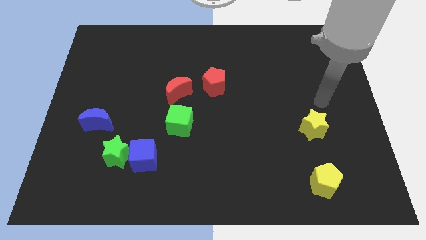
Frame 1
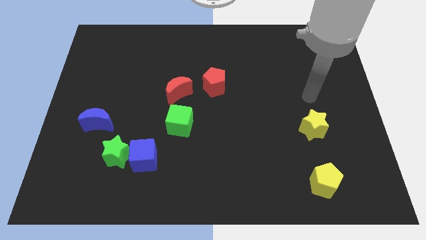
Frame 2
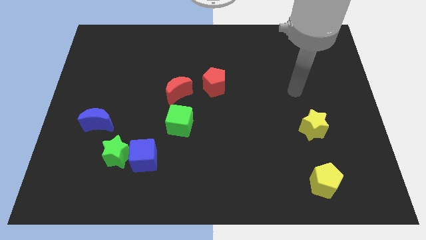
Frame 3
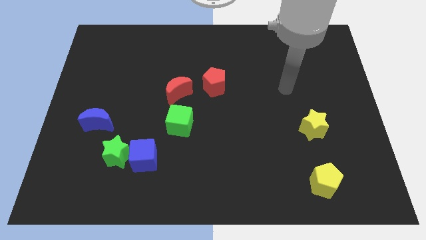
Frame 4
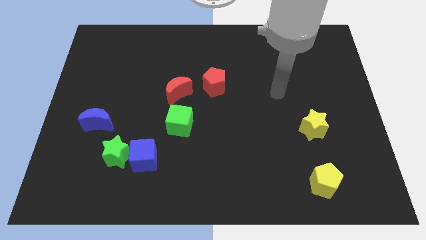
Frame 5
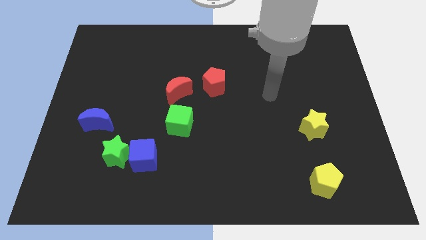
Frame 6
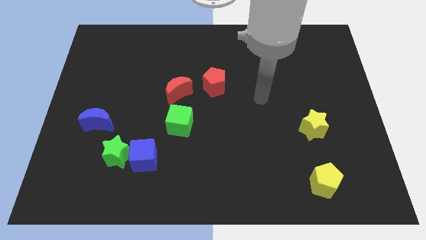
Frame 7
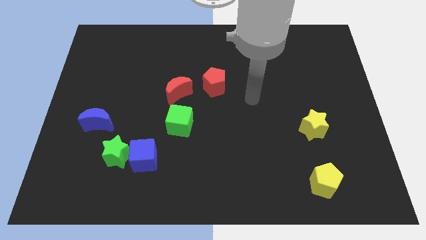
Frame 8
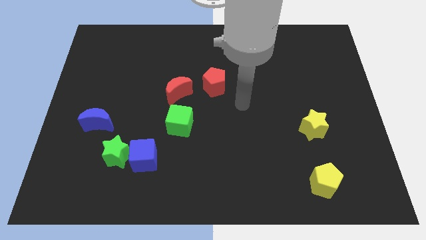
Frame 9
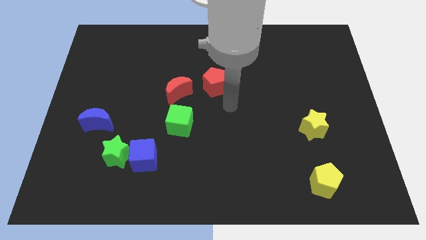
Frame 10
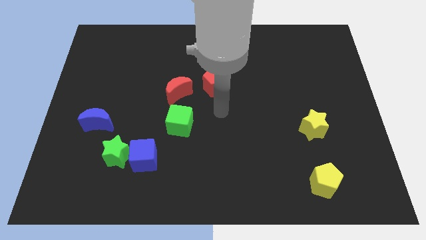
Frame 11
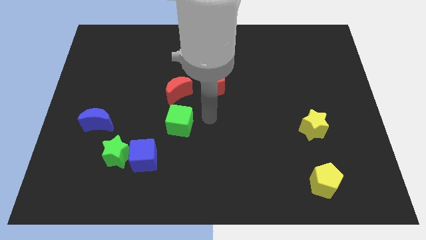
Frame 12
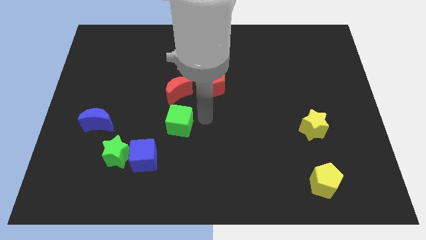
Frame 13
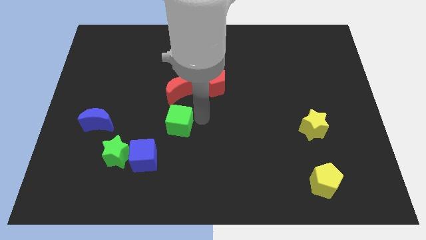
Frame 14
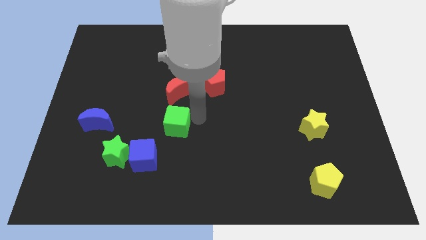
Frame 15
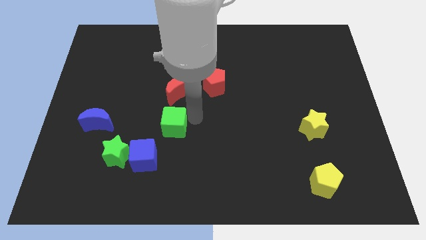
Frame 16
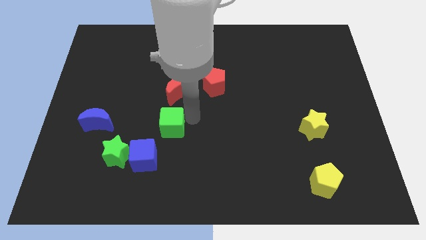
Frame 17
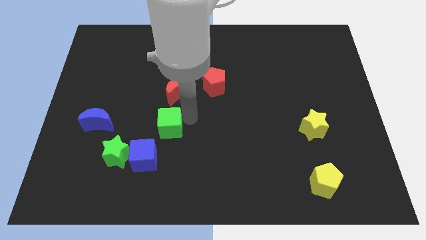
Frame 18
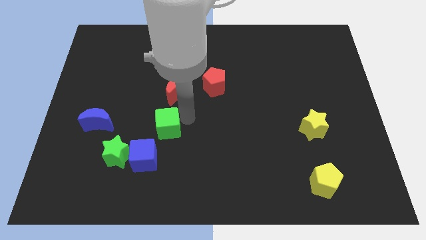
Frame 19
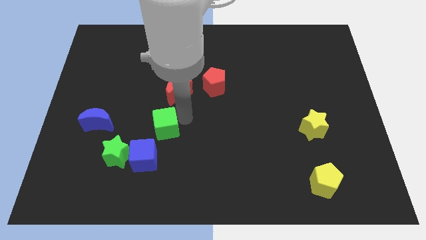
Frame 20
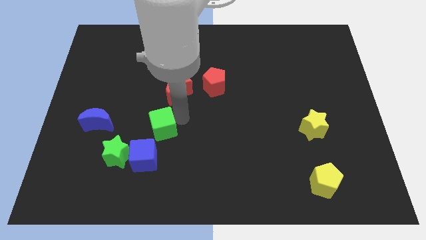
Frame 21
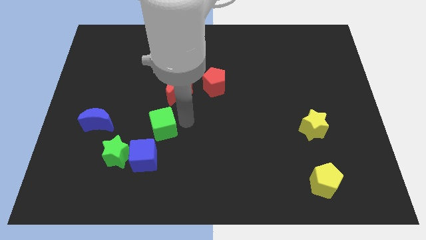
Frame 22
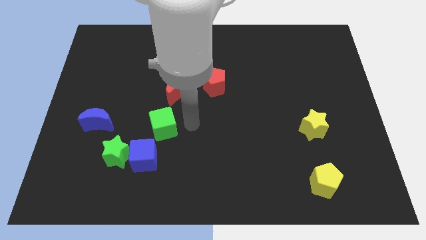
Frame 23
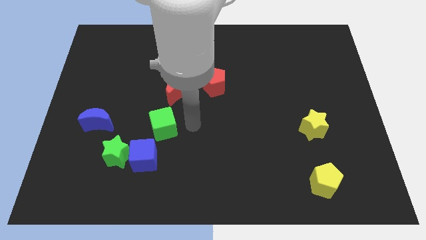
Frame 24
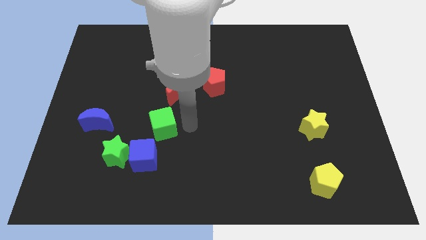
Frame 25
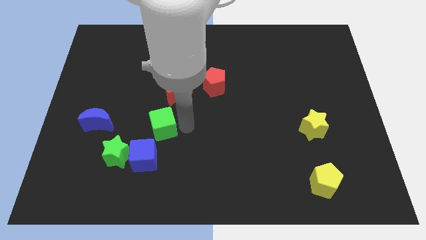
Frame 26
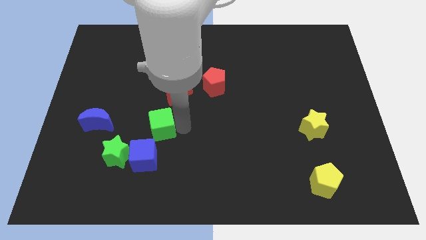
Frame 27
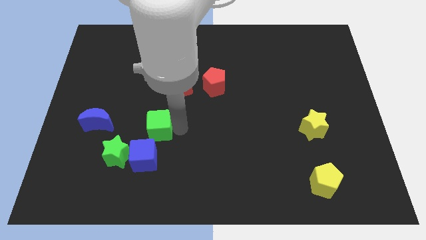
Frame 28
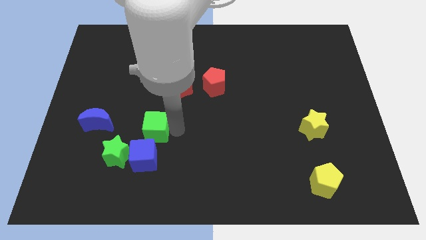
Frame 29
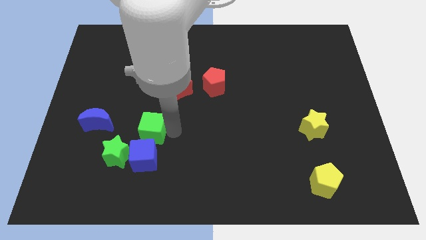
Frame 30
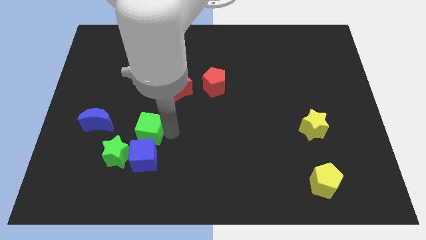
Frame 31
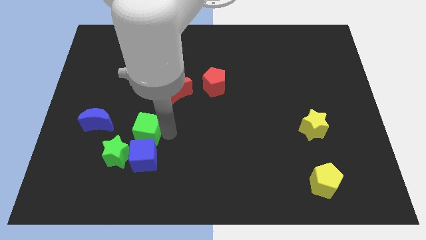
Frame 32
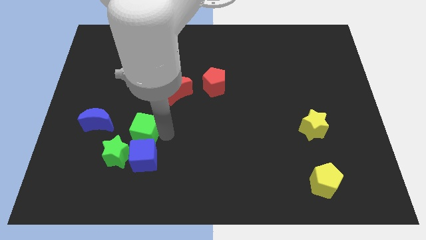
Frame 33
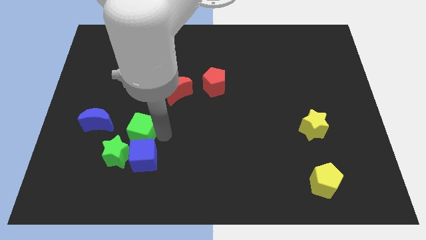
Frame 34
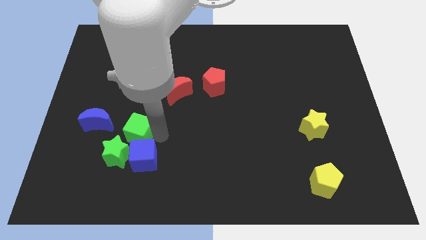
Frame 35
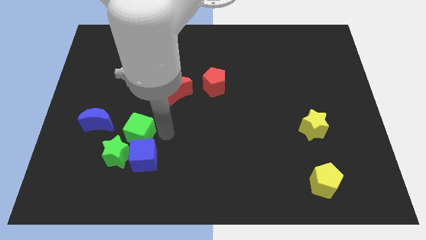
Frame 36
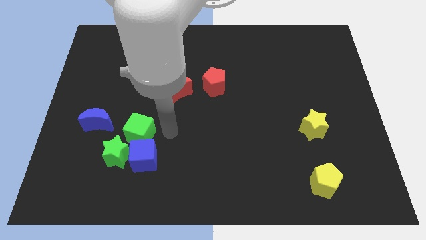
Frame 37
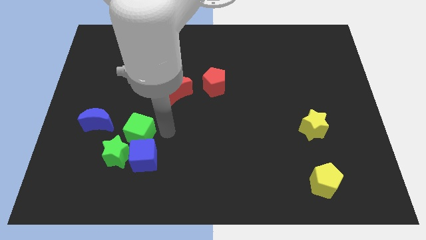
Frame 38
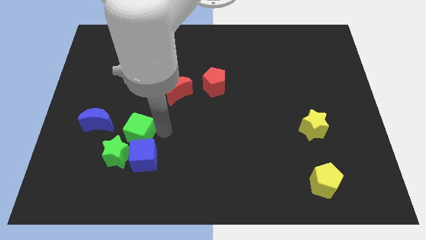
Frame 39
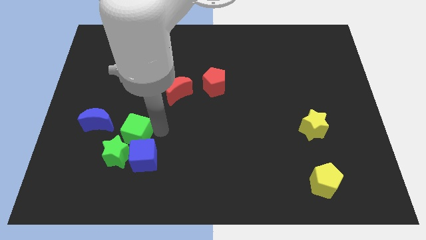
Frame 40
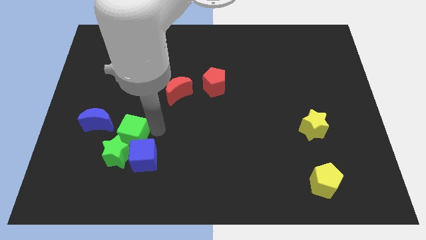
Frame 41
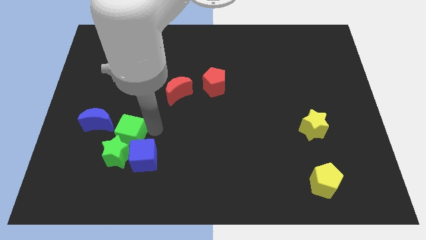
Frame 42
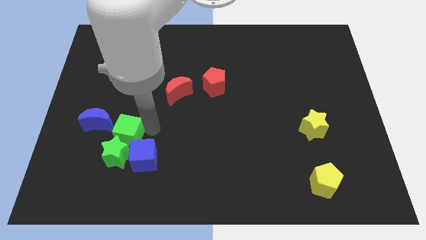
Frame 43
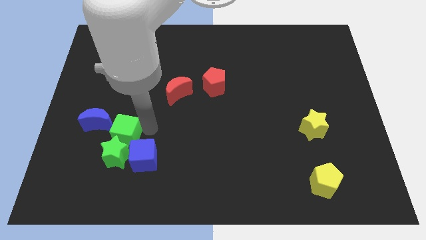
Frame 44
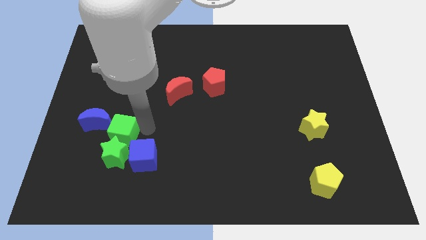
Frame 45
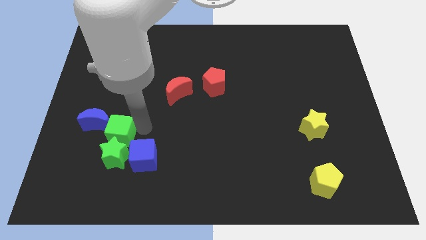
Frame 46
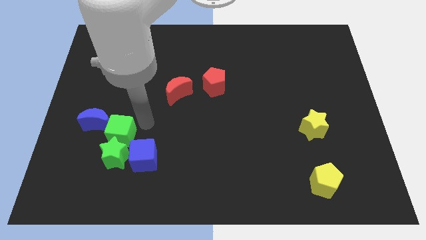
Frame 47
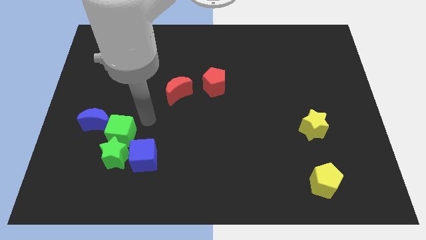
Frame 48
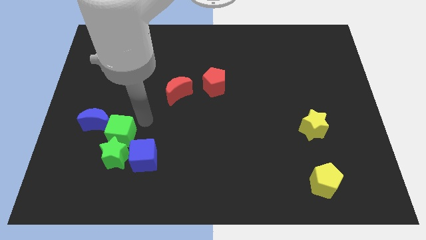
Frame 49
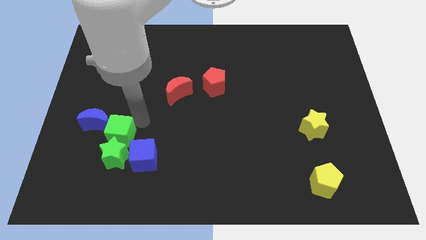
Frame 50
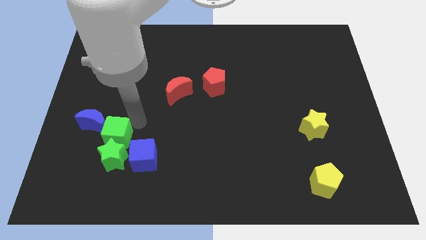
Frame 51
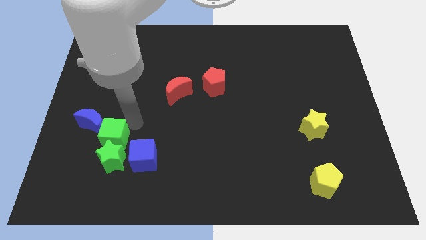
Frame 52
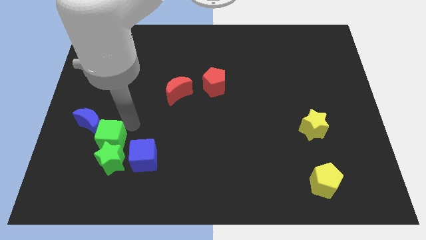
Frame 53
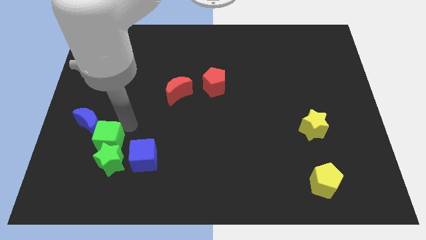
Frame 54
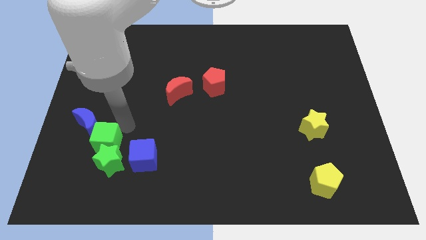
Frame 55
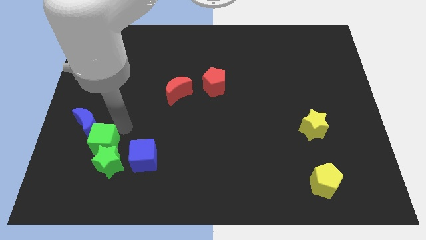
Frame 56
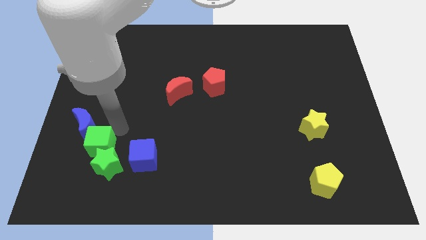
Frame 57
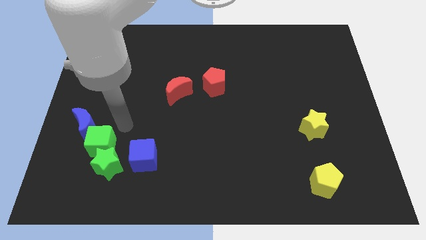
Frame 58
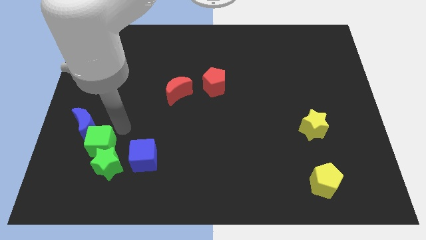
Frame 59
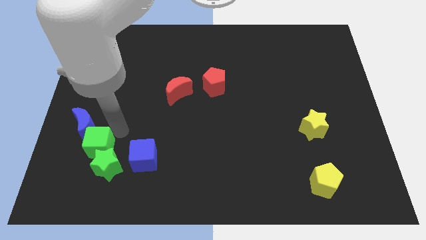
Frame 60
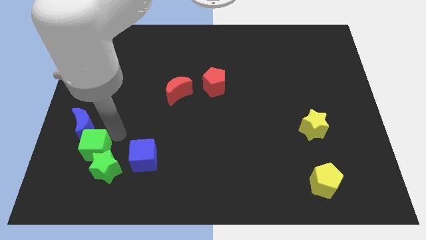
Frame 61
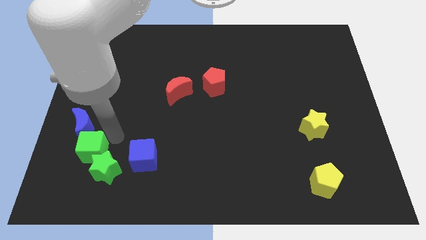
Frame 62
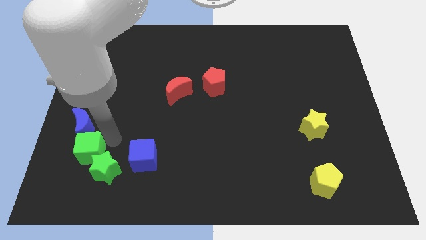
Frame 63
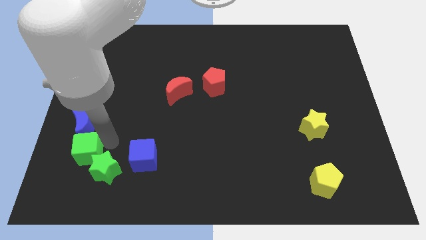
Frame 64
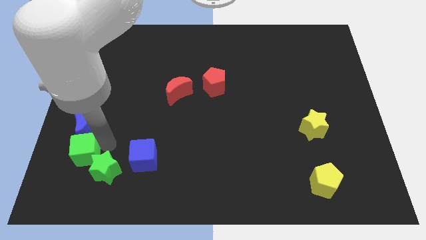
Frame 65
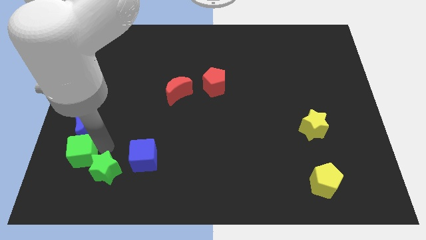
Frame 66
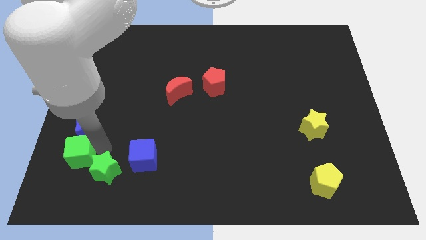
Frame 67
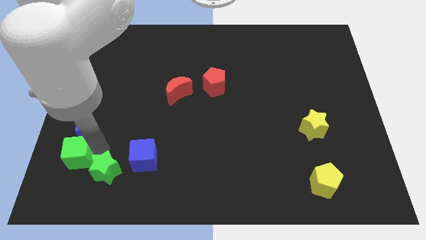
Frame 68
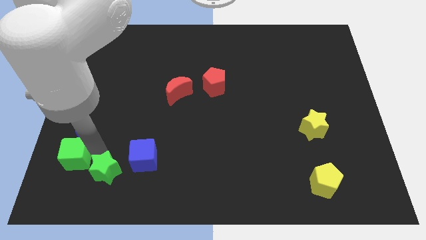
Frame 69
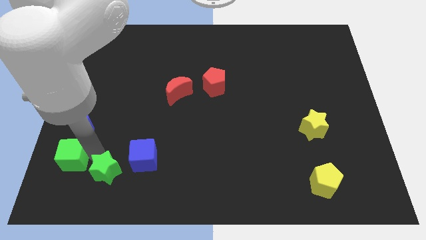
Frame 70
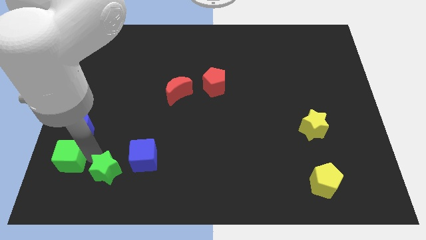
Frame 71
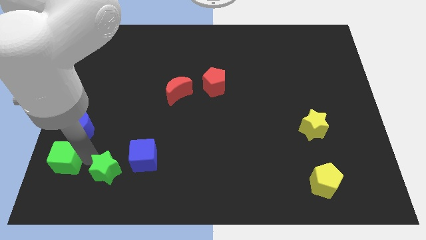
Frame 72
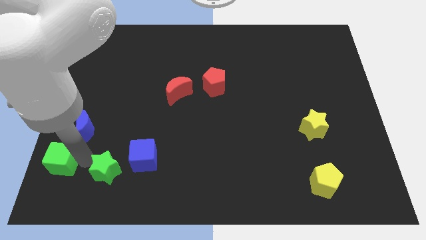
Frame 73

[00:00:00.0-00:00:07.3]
slide the green cube to the lower left corner
